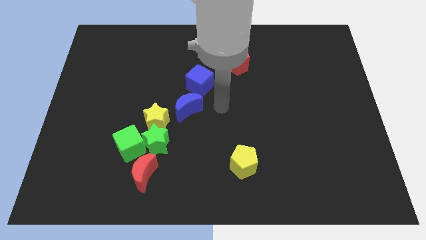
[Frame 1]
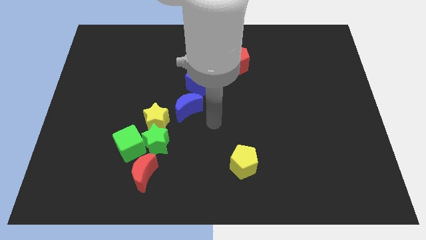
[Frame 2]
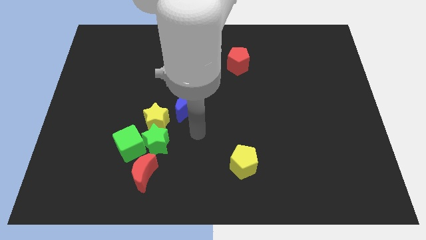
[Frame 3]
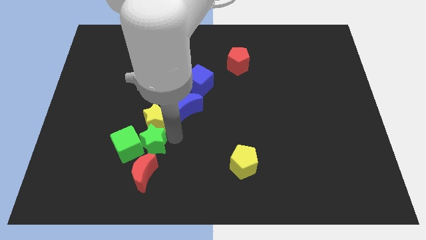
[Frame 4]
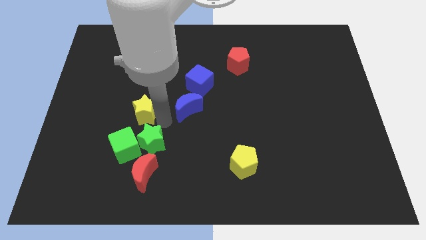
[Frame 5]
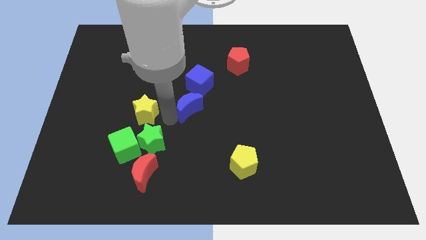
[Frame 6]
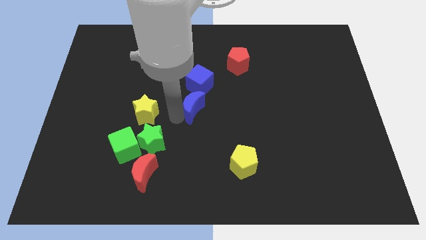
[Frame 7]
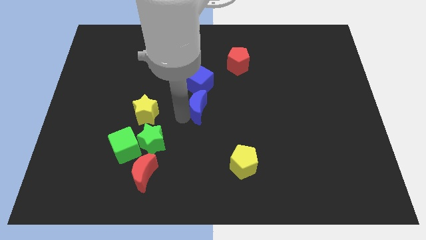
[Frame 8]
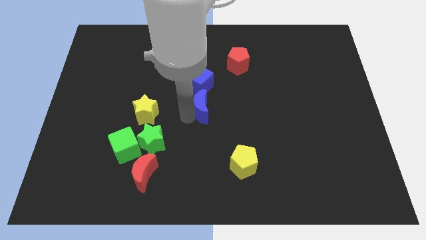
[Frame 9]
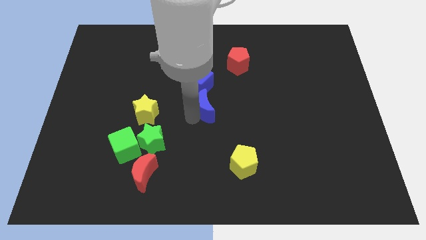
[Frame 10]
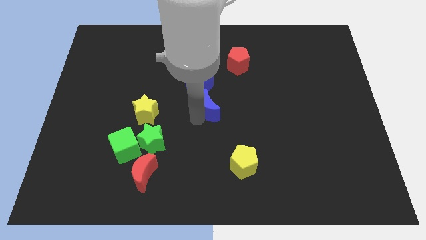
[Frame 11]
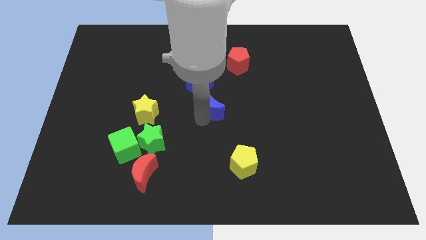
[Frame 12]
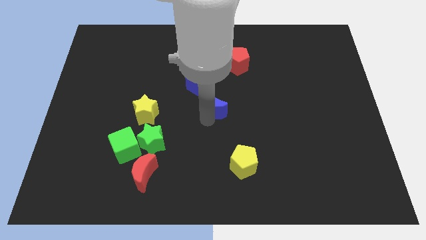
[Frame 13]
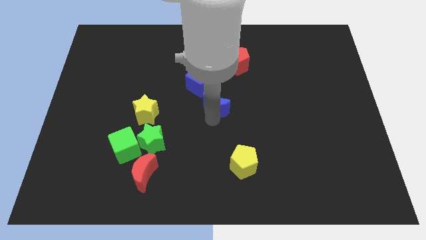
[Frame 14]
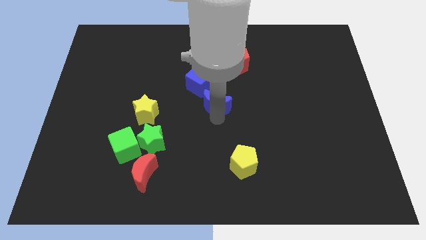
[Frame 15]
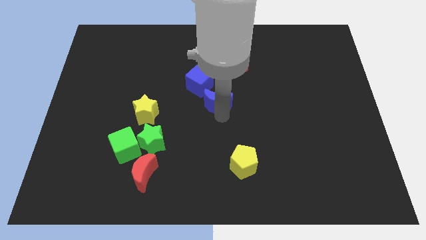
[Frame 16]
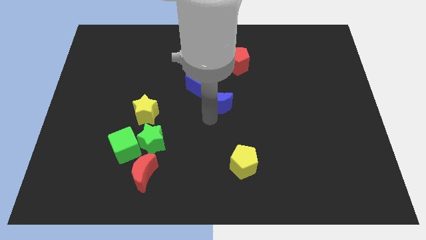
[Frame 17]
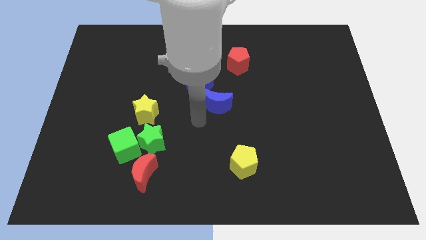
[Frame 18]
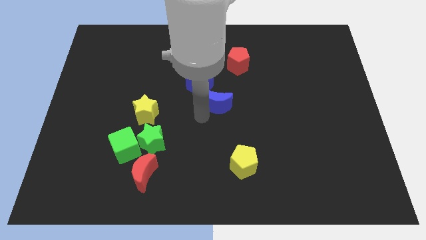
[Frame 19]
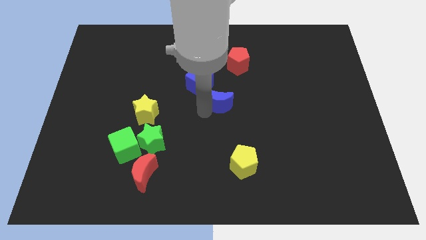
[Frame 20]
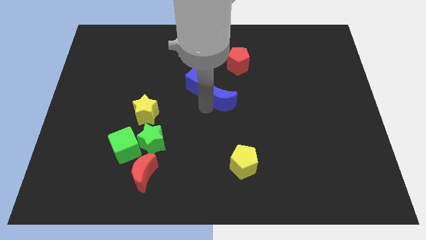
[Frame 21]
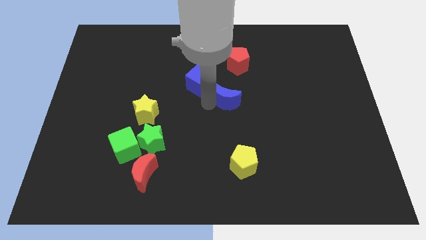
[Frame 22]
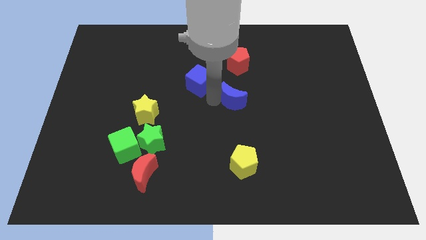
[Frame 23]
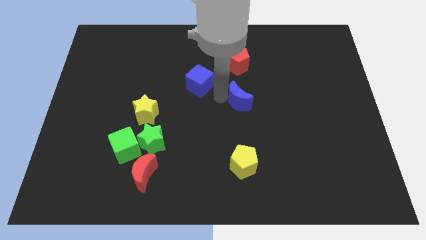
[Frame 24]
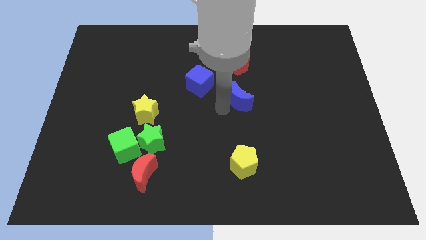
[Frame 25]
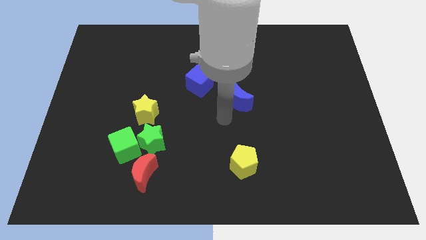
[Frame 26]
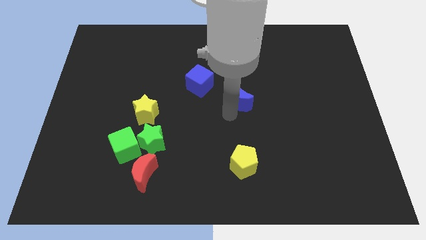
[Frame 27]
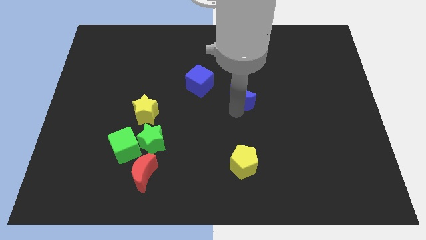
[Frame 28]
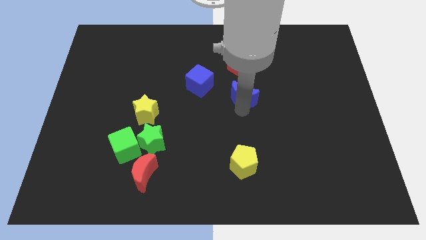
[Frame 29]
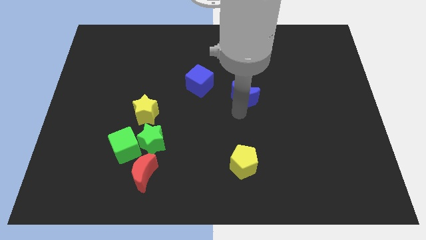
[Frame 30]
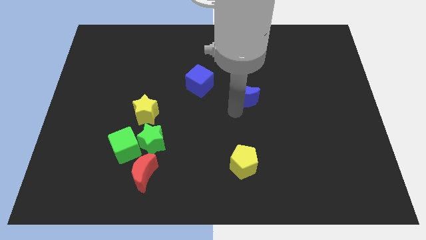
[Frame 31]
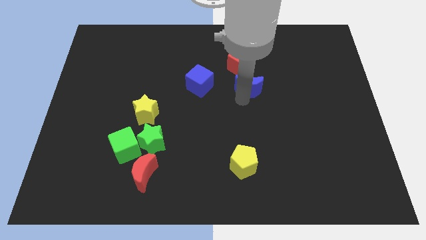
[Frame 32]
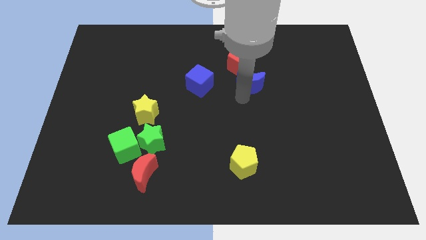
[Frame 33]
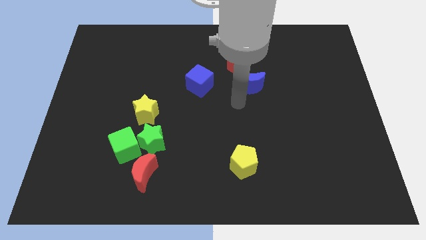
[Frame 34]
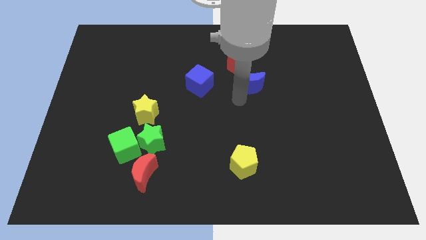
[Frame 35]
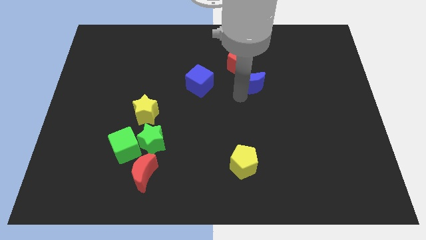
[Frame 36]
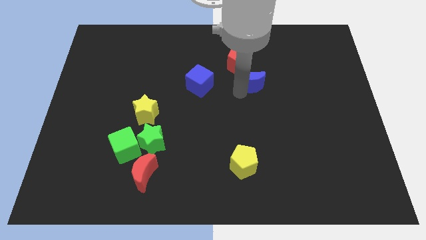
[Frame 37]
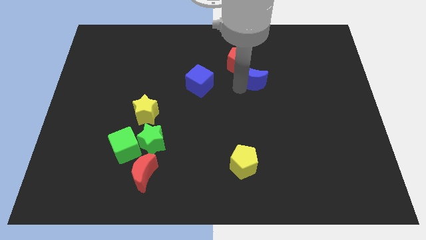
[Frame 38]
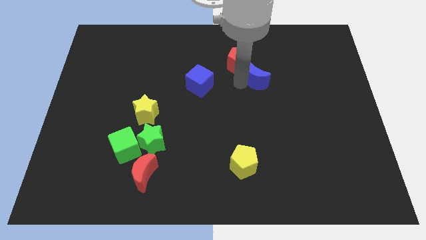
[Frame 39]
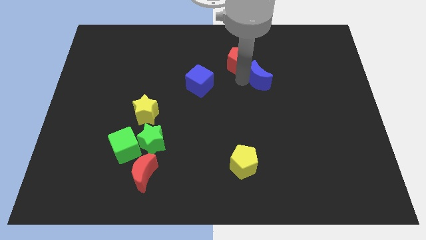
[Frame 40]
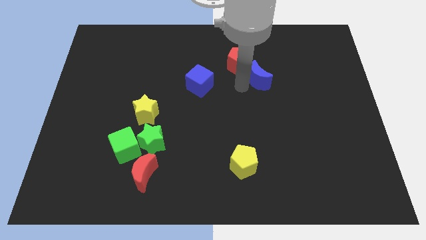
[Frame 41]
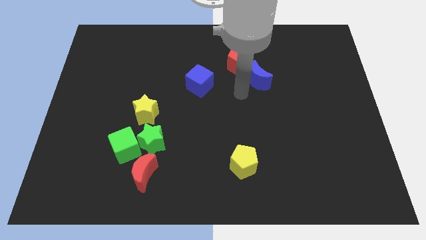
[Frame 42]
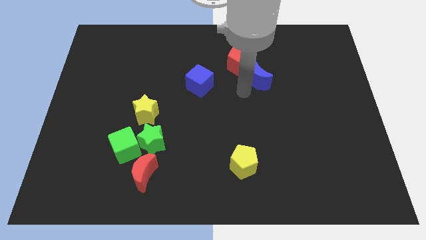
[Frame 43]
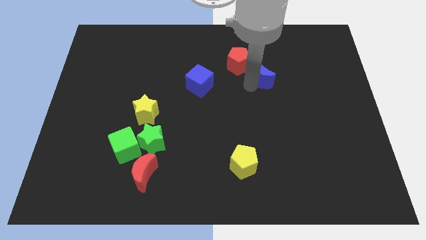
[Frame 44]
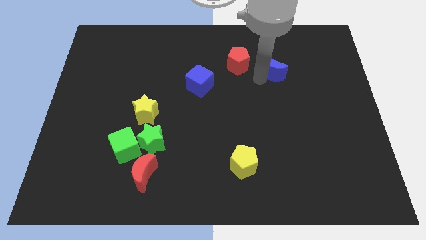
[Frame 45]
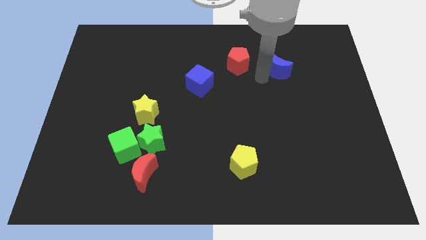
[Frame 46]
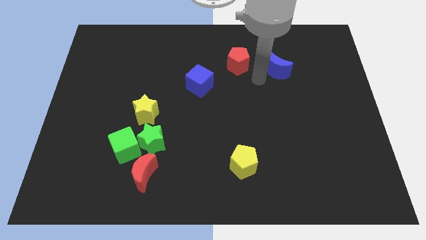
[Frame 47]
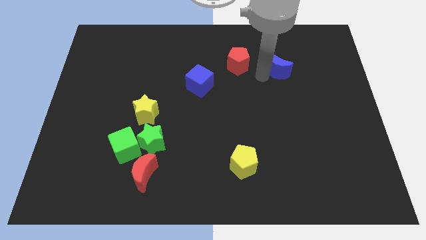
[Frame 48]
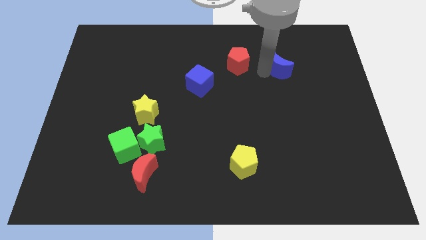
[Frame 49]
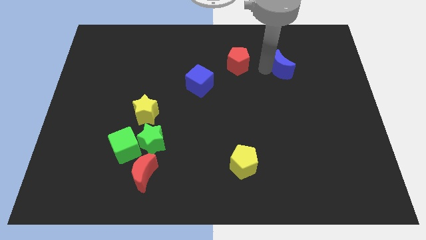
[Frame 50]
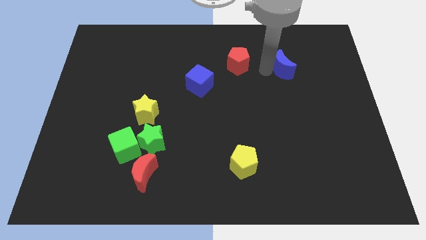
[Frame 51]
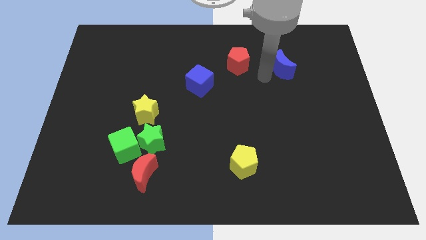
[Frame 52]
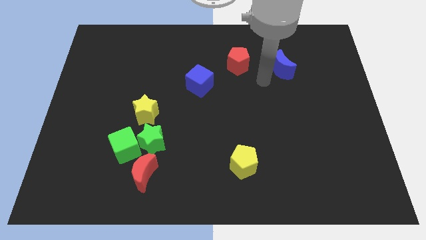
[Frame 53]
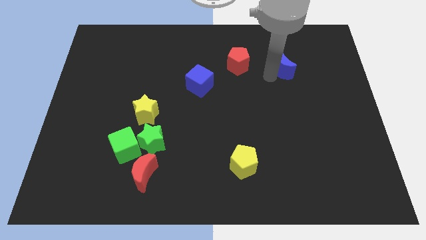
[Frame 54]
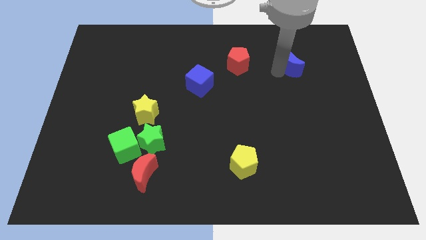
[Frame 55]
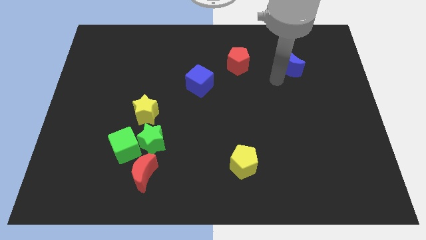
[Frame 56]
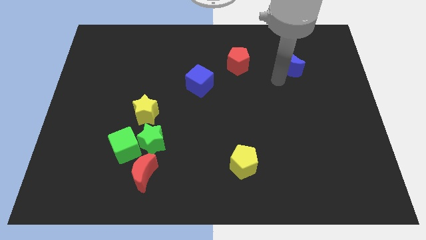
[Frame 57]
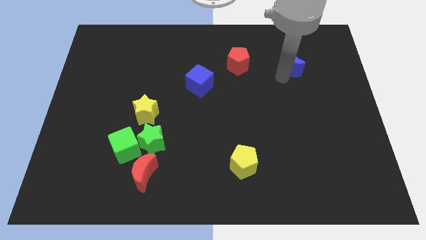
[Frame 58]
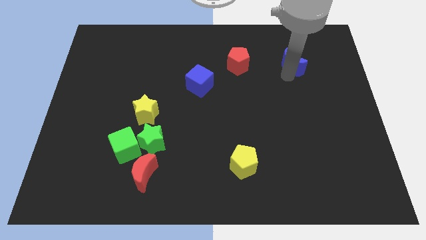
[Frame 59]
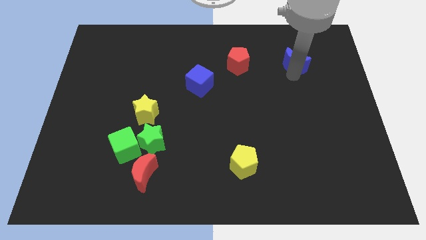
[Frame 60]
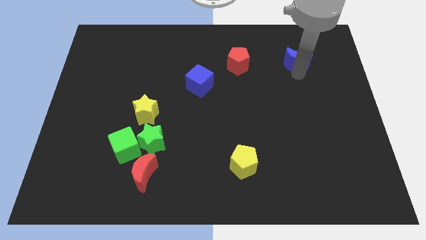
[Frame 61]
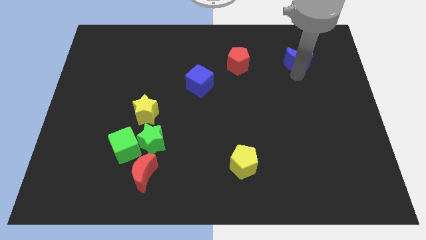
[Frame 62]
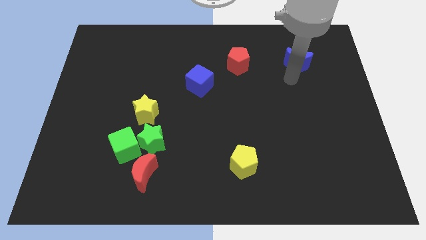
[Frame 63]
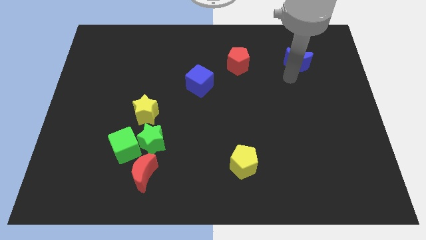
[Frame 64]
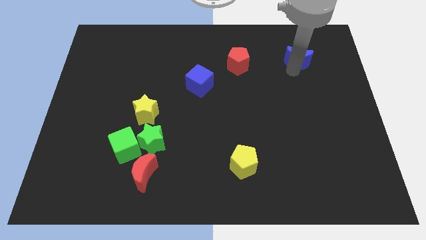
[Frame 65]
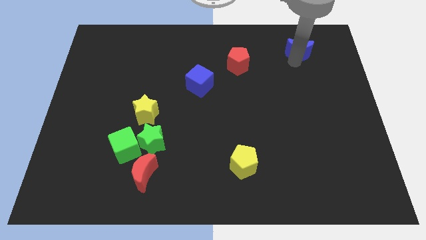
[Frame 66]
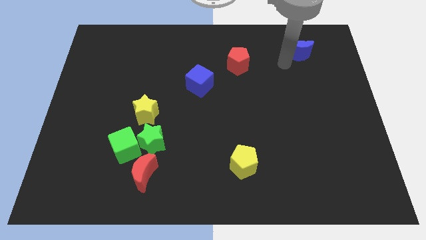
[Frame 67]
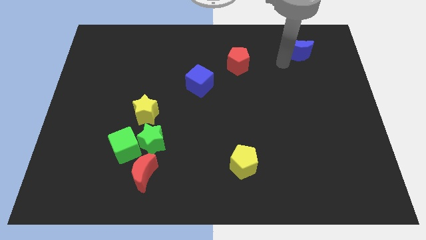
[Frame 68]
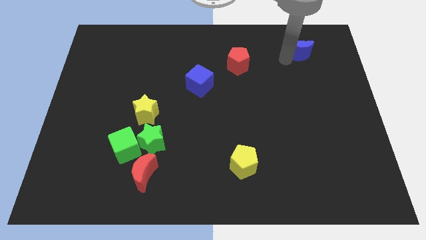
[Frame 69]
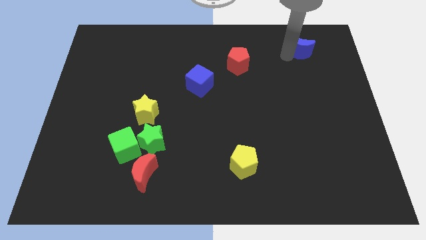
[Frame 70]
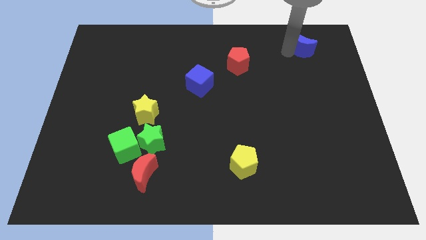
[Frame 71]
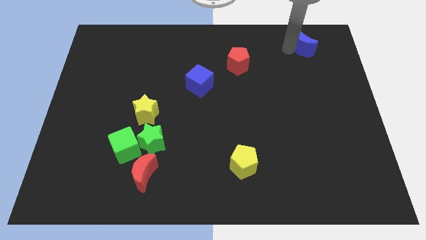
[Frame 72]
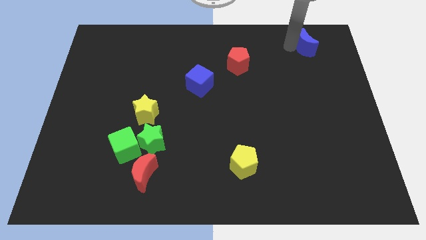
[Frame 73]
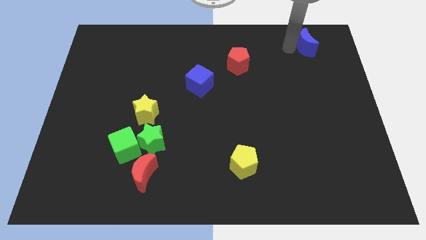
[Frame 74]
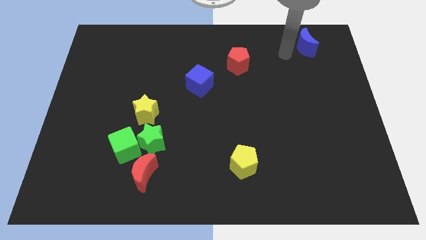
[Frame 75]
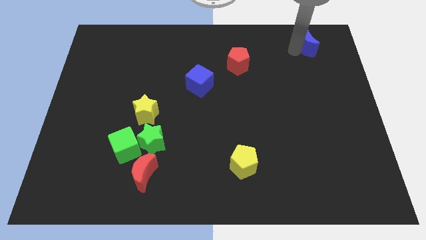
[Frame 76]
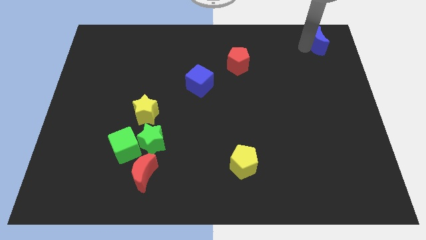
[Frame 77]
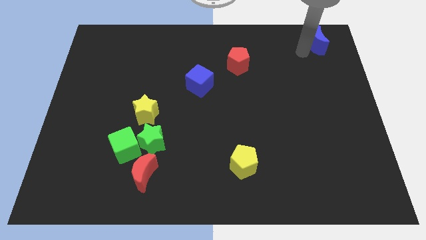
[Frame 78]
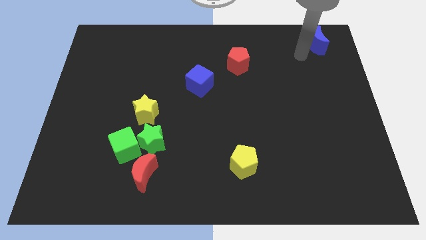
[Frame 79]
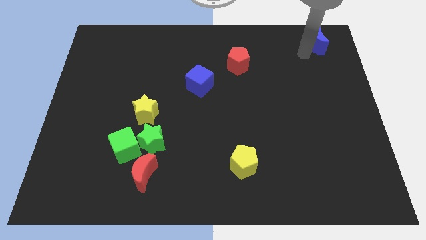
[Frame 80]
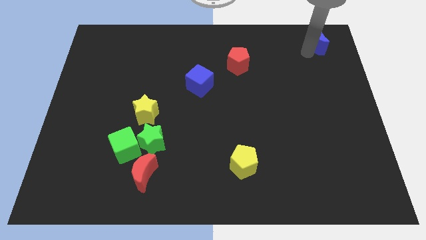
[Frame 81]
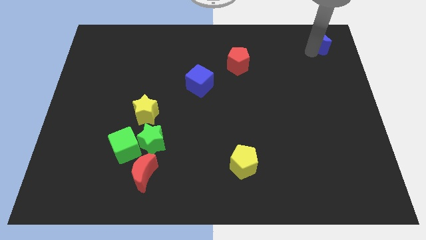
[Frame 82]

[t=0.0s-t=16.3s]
push the blue moon to the top right corner
